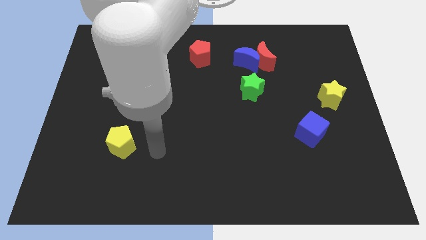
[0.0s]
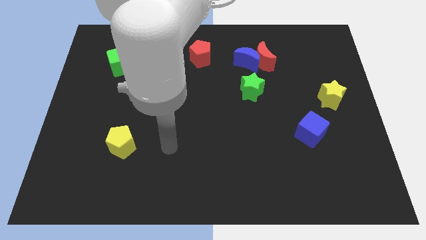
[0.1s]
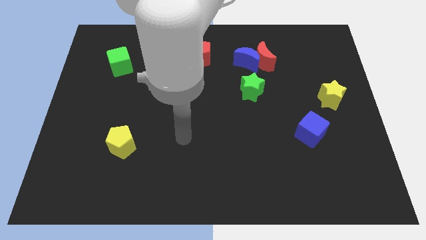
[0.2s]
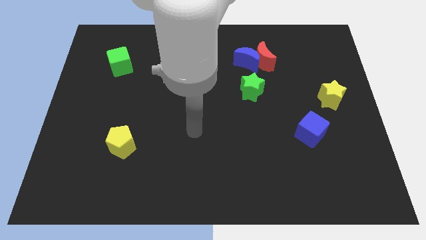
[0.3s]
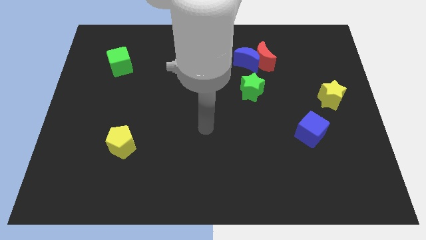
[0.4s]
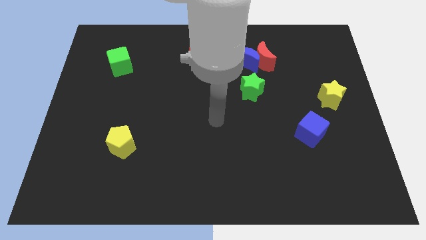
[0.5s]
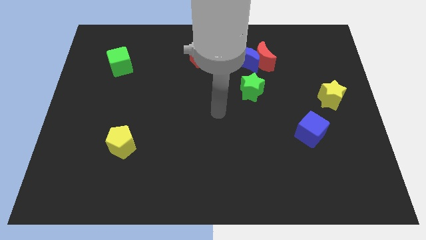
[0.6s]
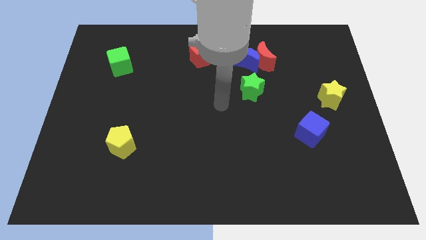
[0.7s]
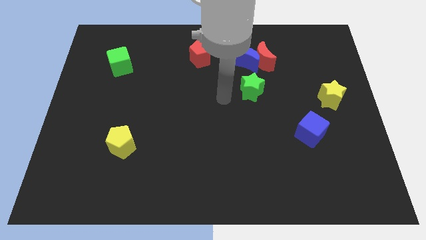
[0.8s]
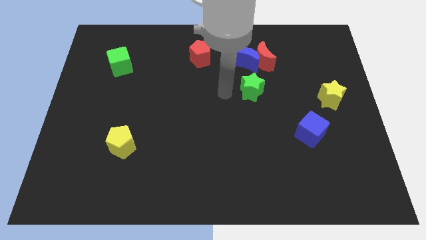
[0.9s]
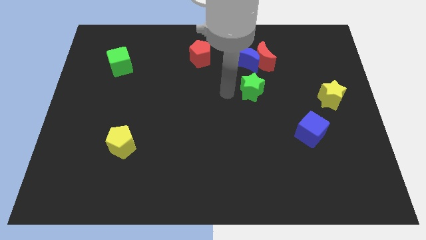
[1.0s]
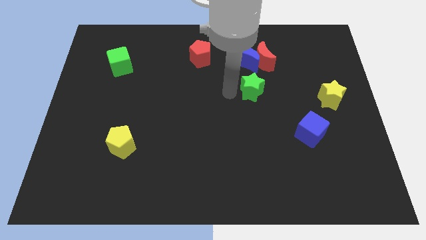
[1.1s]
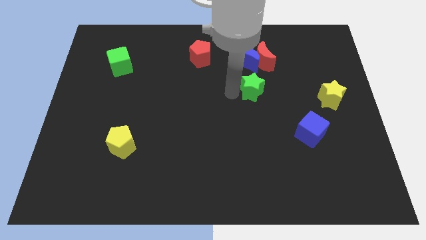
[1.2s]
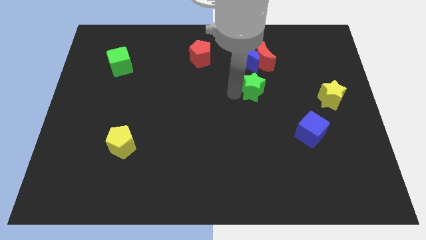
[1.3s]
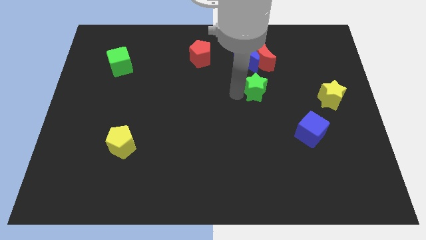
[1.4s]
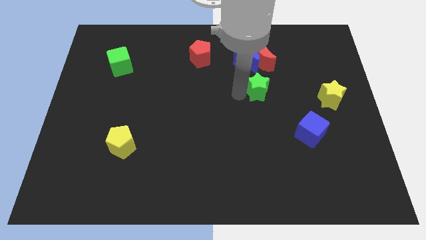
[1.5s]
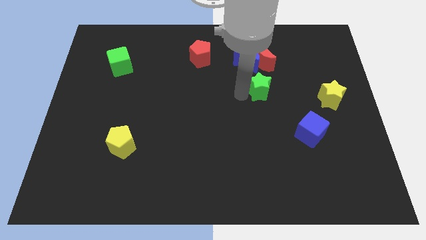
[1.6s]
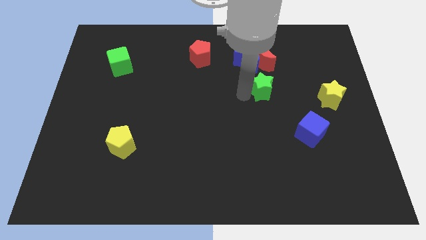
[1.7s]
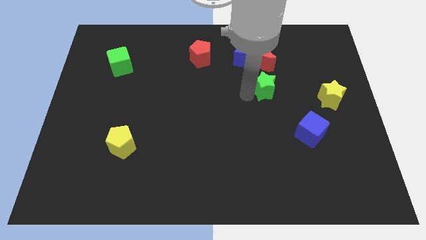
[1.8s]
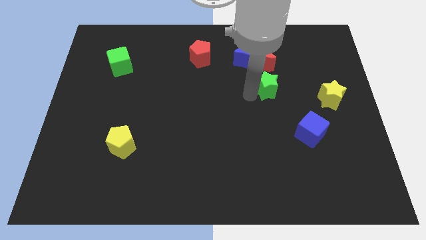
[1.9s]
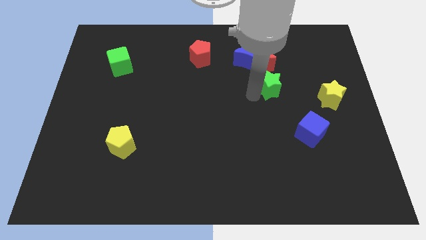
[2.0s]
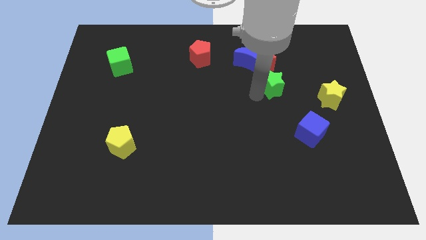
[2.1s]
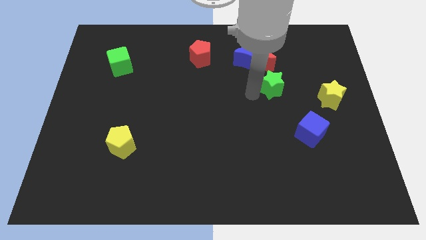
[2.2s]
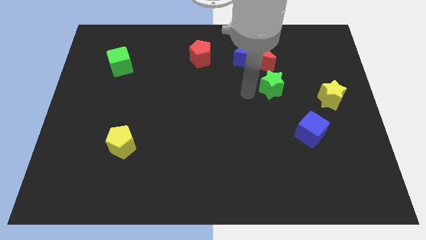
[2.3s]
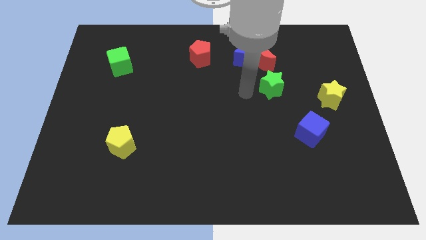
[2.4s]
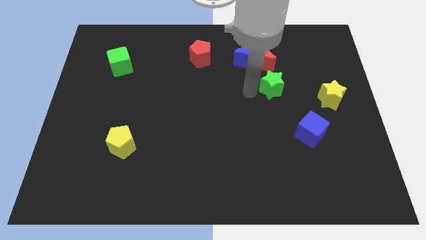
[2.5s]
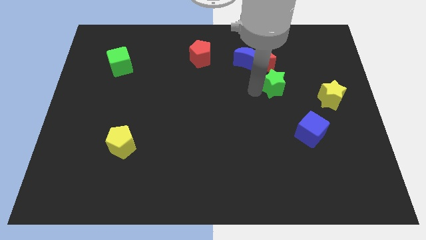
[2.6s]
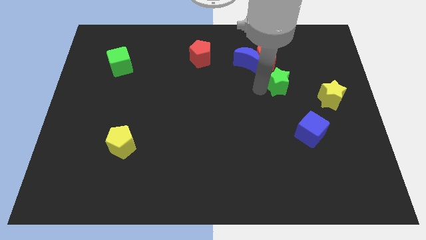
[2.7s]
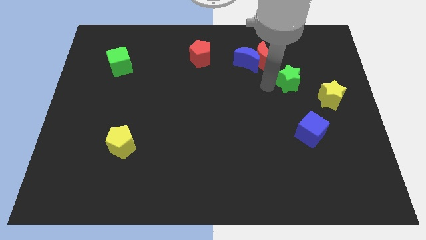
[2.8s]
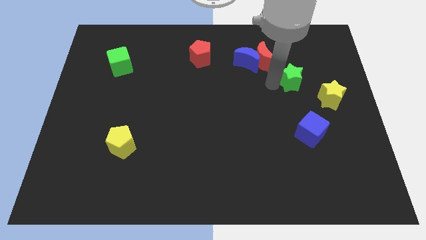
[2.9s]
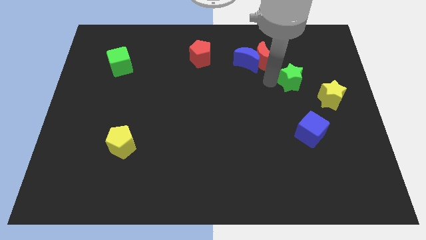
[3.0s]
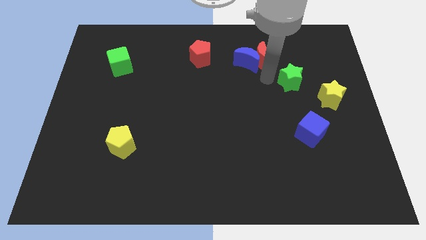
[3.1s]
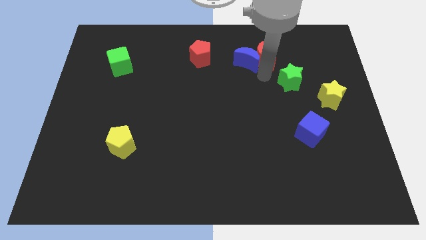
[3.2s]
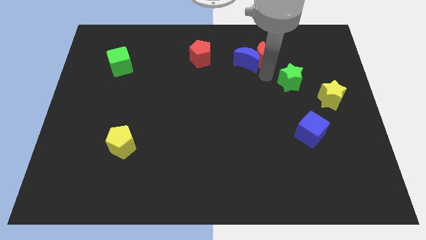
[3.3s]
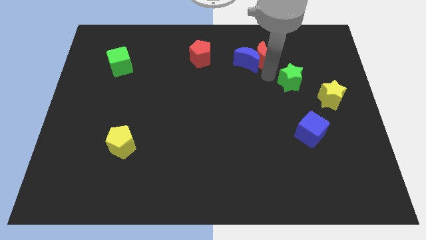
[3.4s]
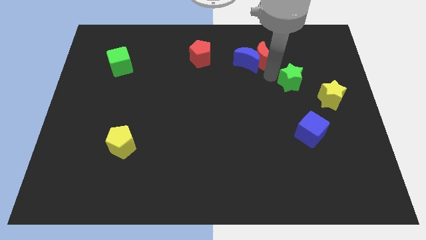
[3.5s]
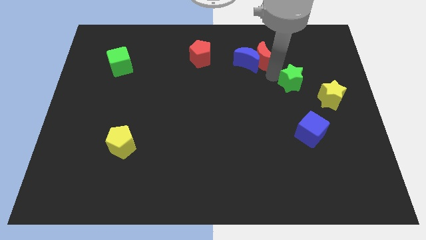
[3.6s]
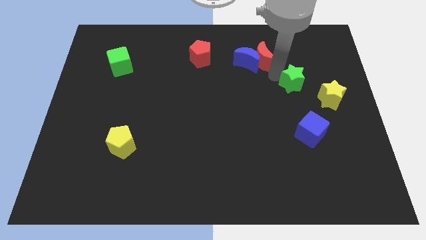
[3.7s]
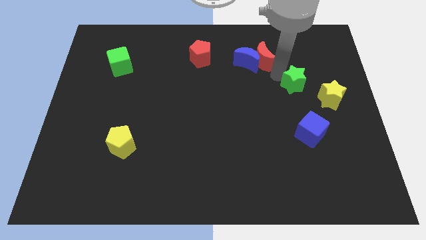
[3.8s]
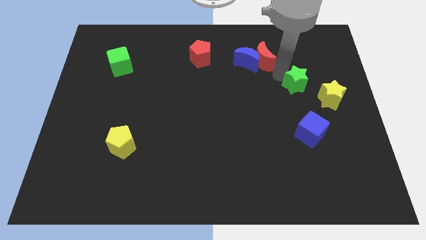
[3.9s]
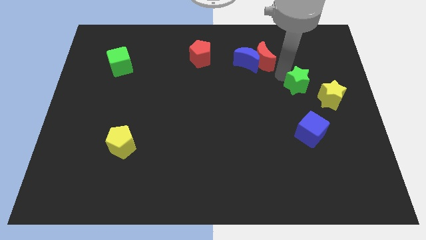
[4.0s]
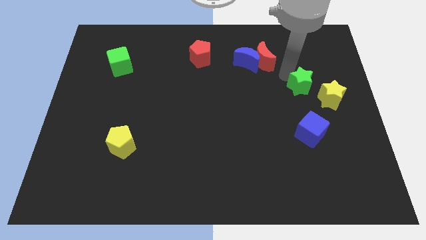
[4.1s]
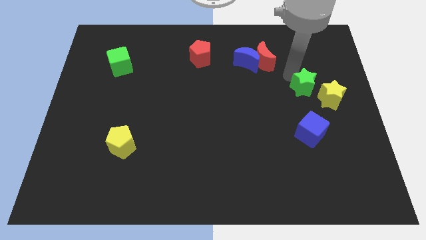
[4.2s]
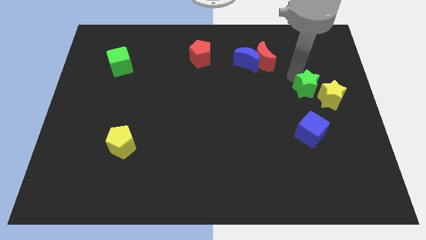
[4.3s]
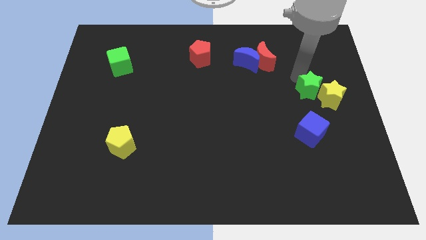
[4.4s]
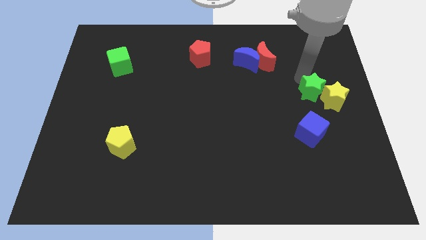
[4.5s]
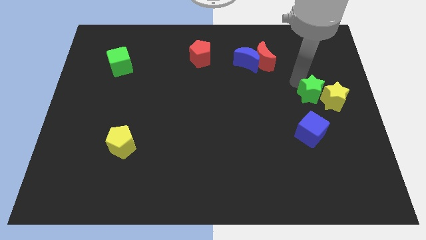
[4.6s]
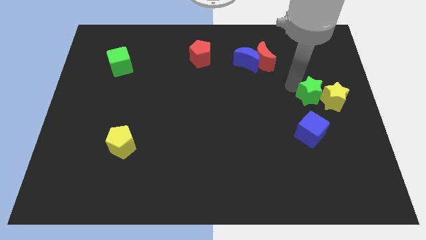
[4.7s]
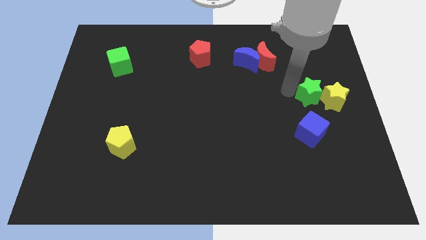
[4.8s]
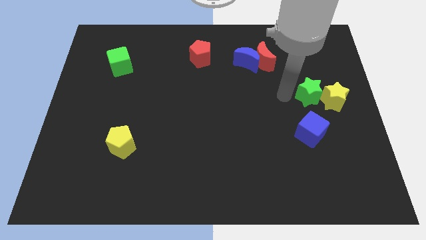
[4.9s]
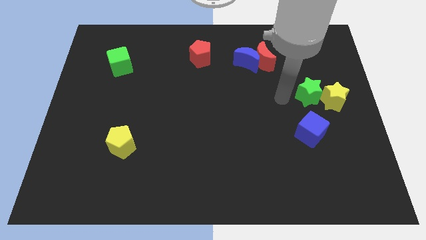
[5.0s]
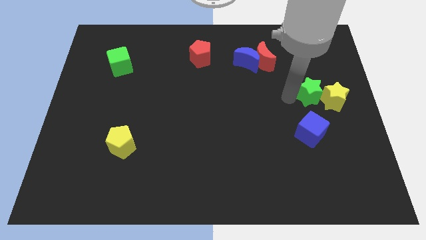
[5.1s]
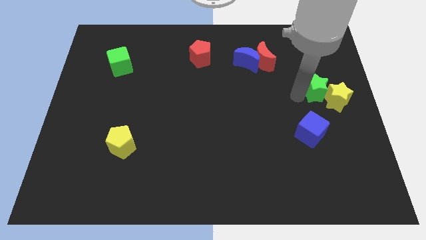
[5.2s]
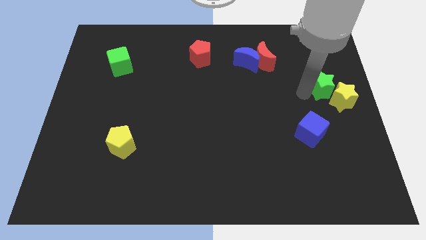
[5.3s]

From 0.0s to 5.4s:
slide the green star to the right side

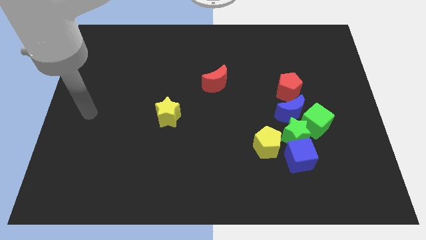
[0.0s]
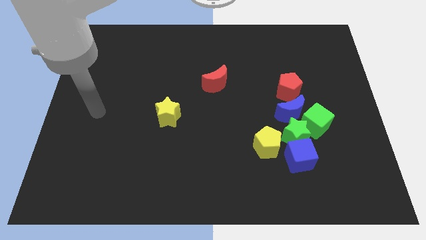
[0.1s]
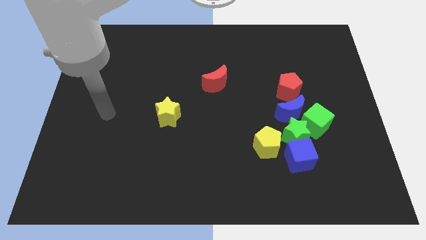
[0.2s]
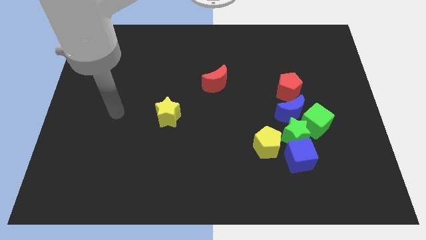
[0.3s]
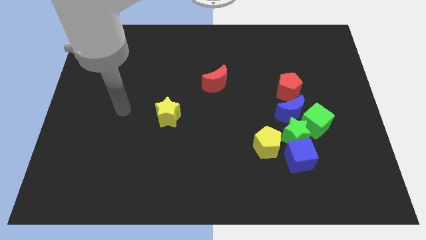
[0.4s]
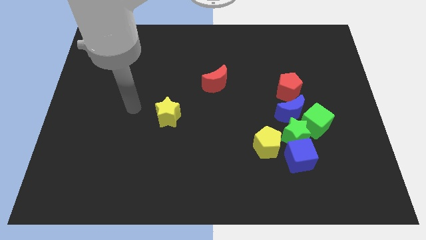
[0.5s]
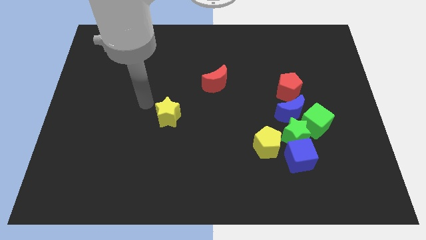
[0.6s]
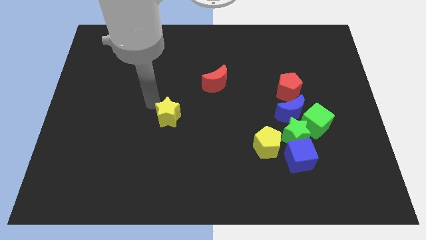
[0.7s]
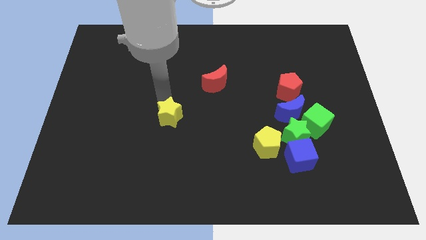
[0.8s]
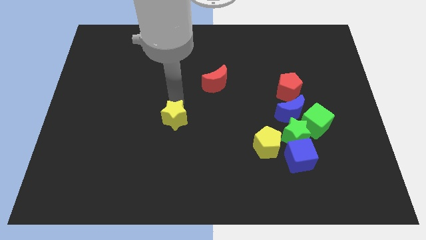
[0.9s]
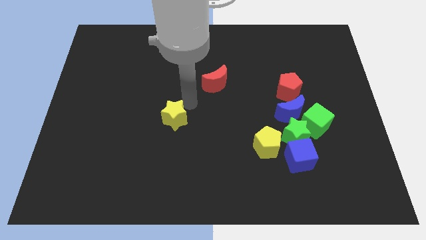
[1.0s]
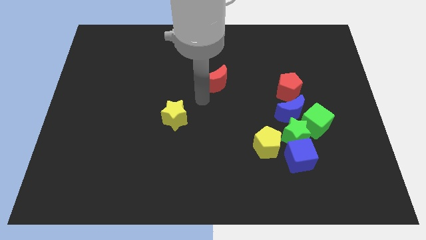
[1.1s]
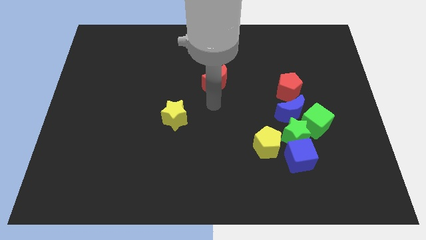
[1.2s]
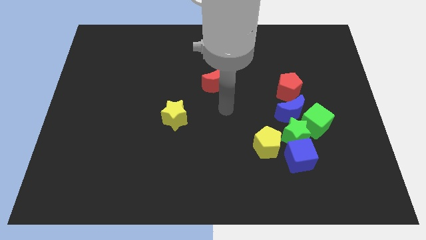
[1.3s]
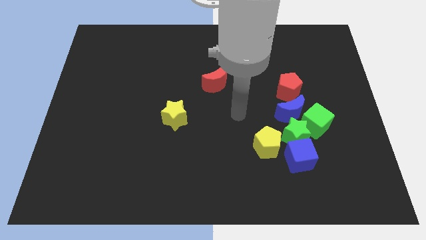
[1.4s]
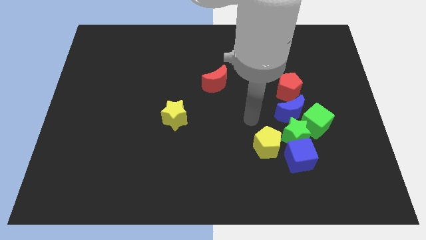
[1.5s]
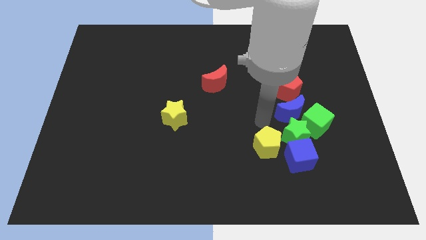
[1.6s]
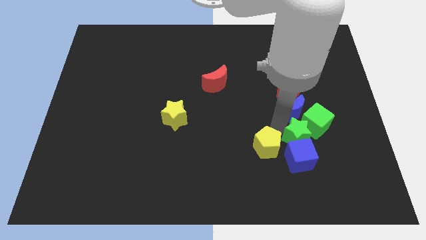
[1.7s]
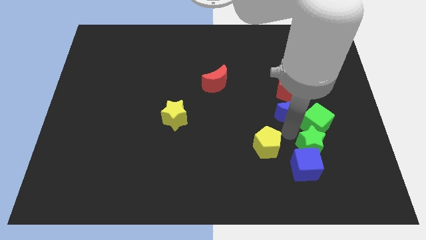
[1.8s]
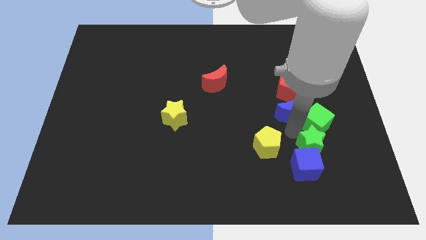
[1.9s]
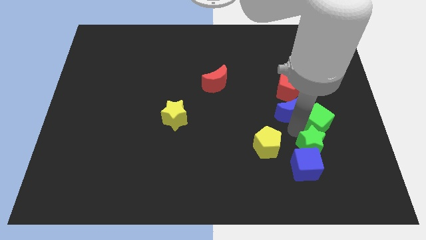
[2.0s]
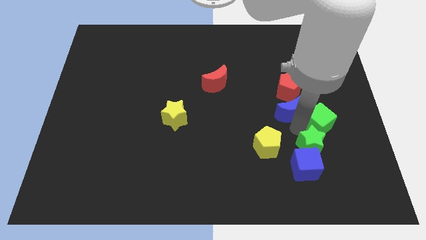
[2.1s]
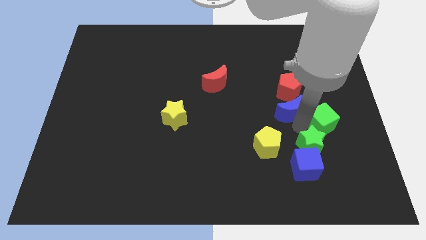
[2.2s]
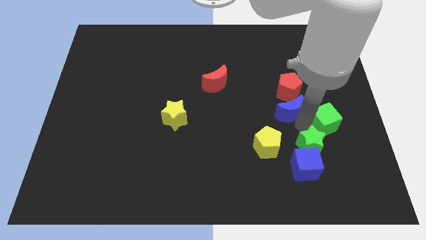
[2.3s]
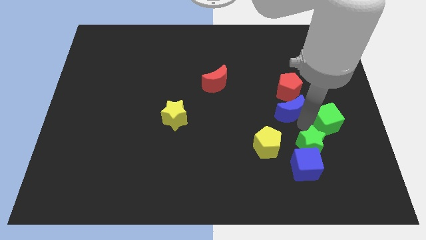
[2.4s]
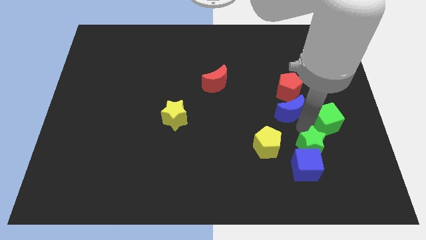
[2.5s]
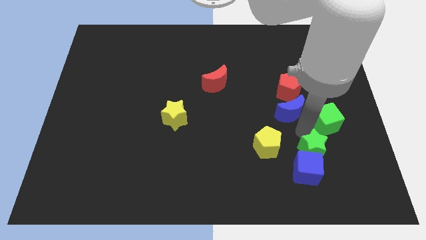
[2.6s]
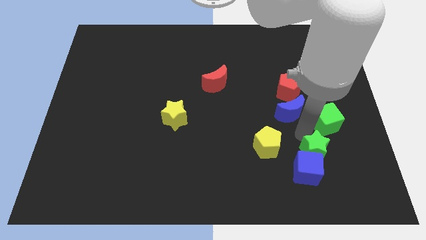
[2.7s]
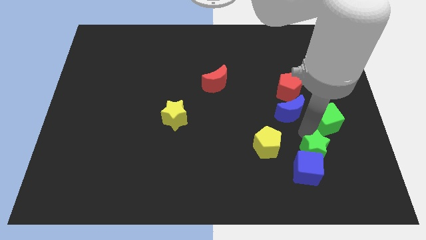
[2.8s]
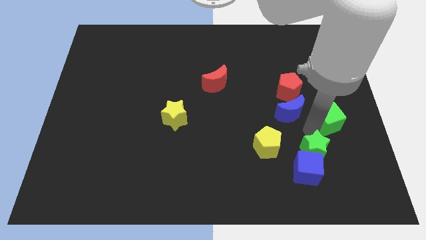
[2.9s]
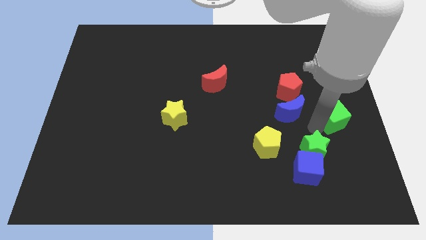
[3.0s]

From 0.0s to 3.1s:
move the green cube to the center right
